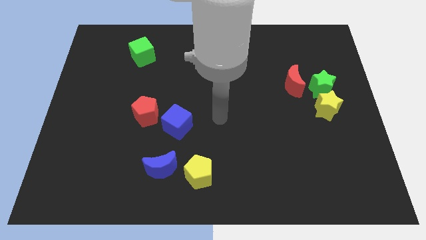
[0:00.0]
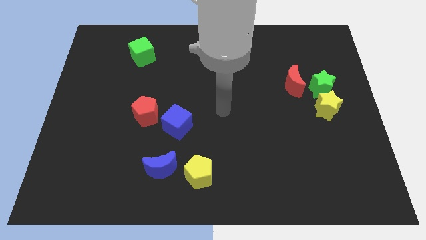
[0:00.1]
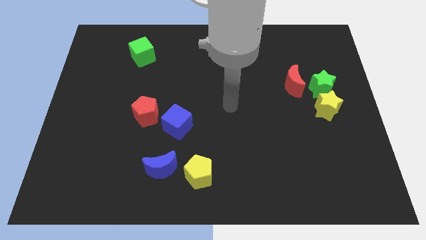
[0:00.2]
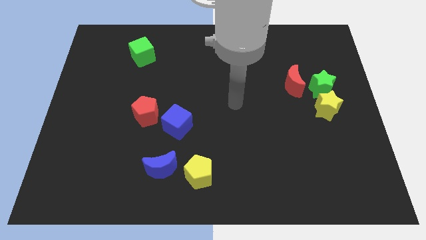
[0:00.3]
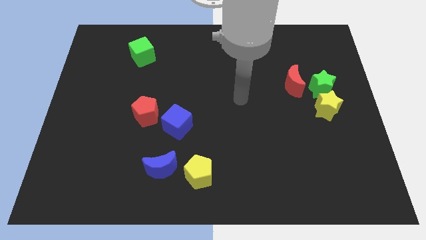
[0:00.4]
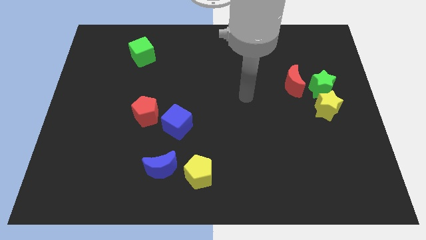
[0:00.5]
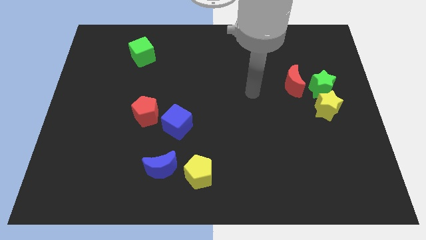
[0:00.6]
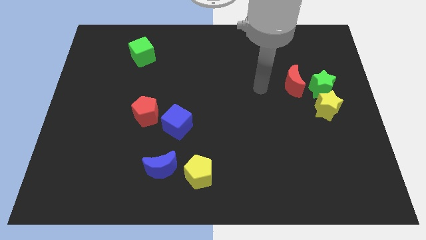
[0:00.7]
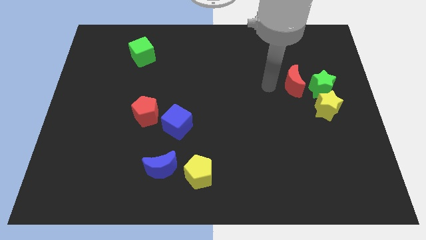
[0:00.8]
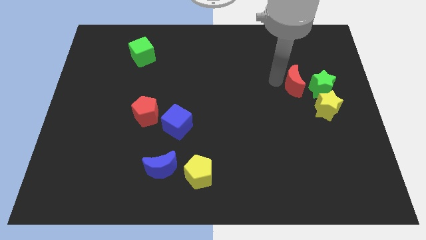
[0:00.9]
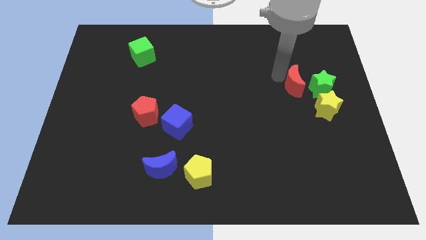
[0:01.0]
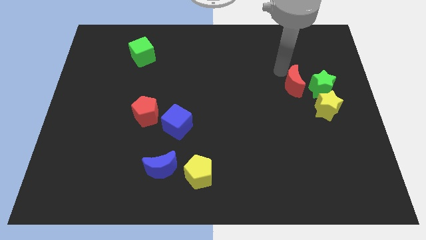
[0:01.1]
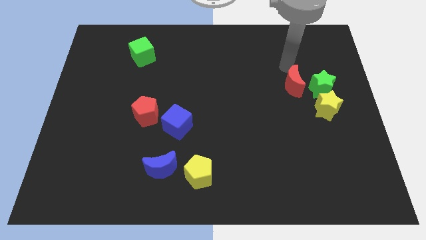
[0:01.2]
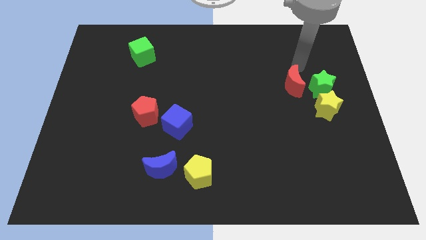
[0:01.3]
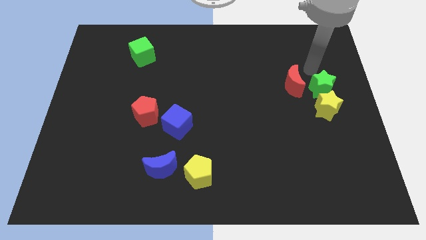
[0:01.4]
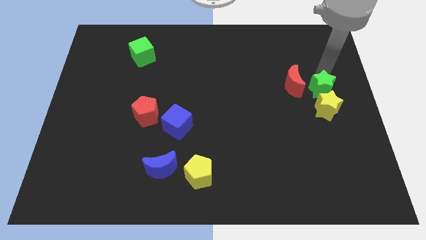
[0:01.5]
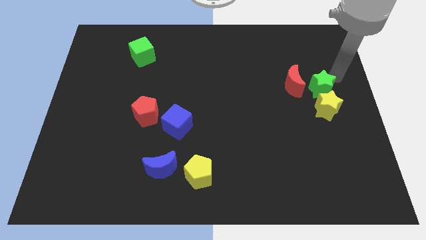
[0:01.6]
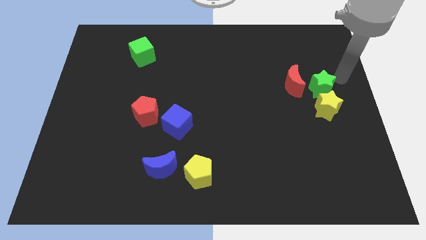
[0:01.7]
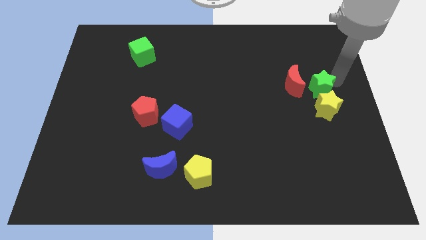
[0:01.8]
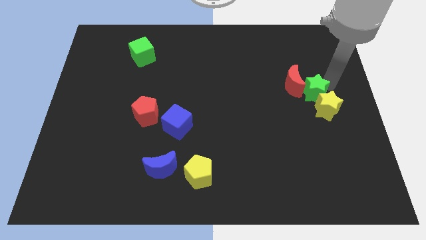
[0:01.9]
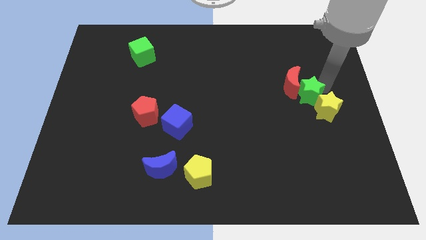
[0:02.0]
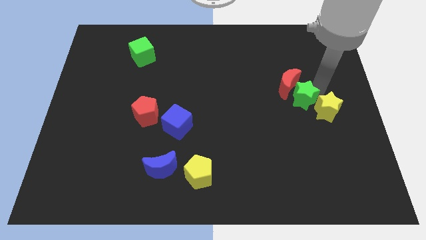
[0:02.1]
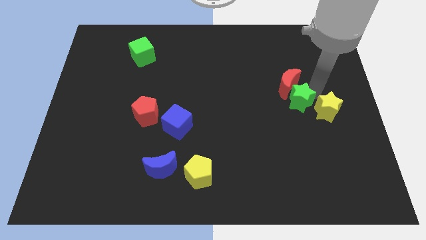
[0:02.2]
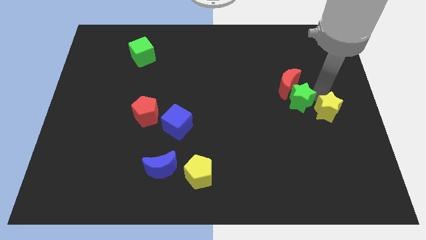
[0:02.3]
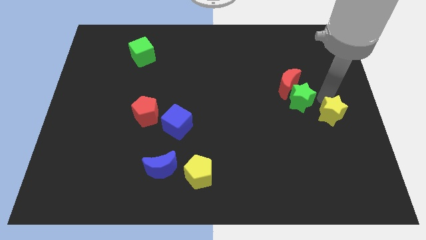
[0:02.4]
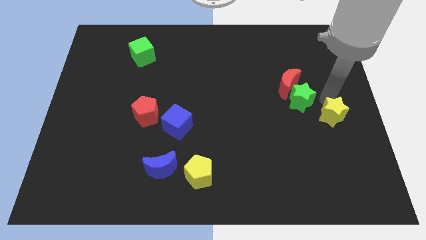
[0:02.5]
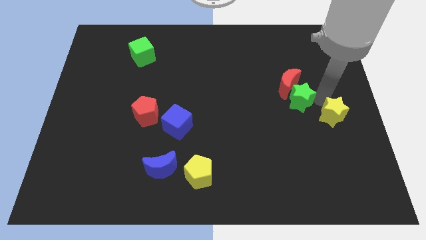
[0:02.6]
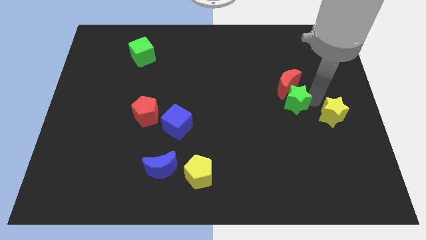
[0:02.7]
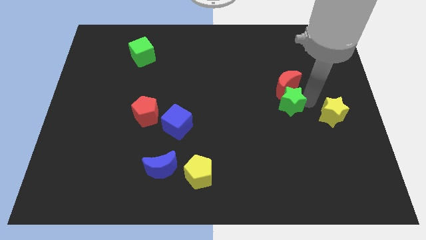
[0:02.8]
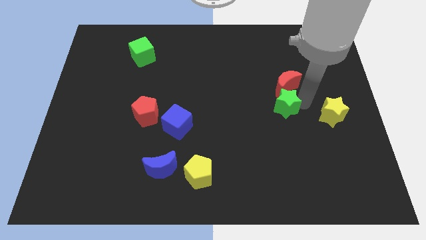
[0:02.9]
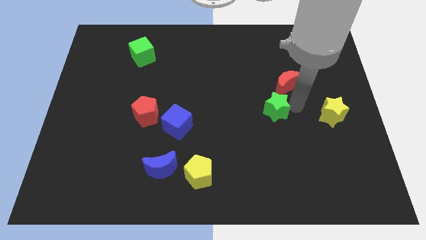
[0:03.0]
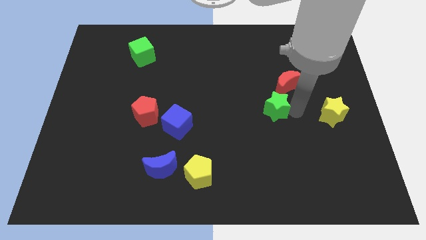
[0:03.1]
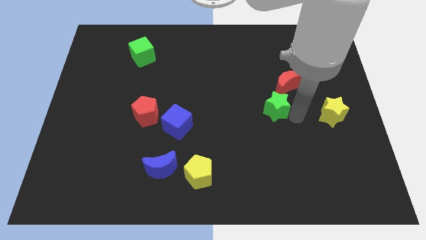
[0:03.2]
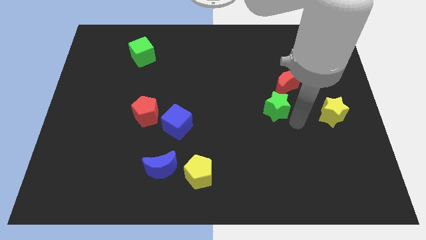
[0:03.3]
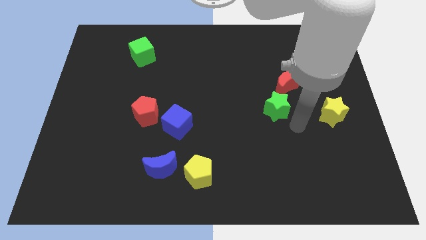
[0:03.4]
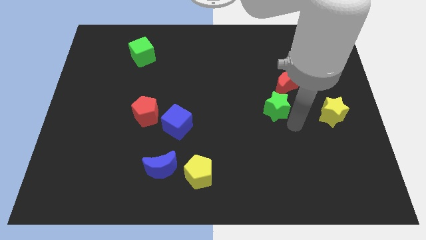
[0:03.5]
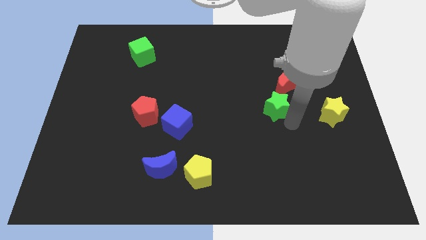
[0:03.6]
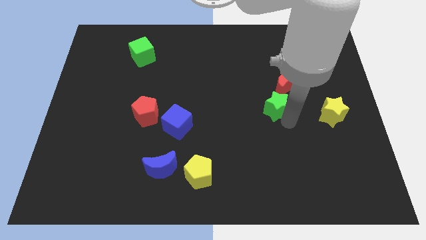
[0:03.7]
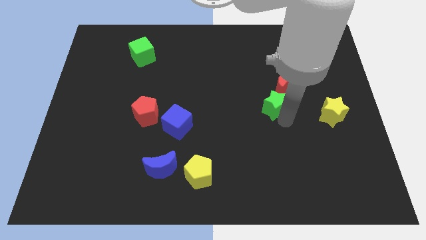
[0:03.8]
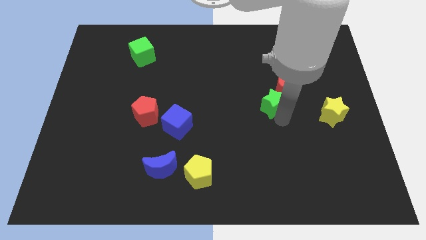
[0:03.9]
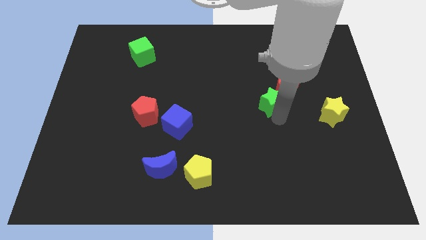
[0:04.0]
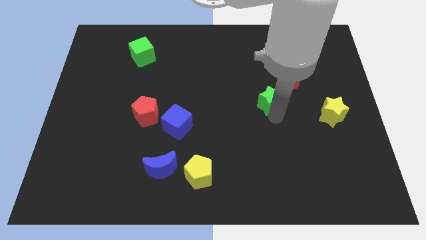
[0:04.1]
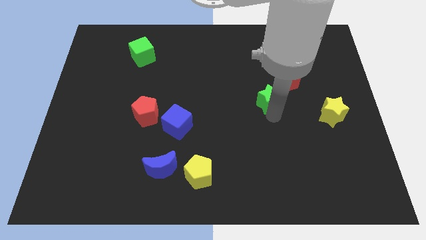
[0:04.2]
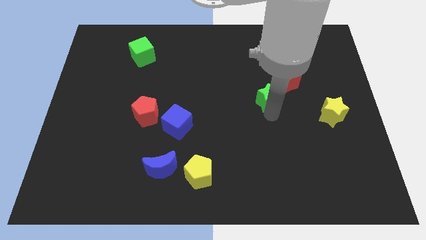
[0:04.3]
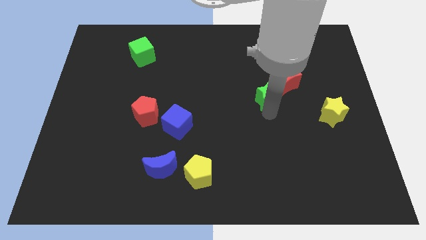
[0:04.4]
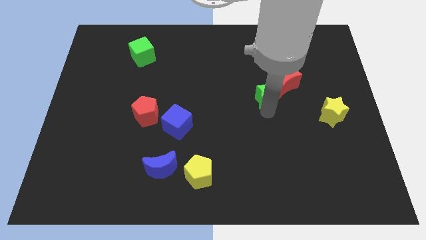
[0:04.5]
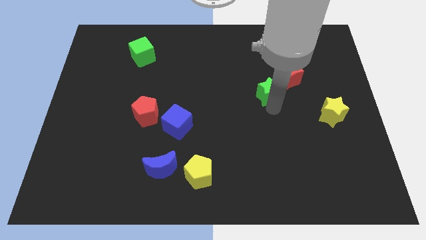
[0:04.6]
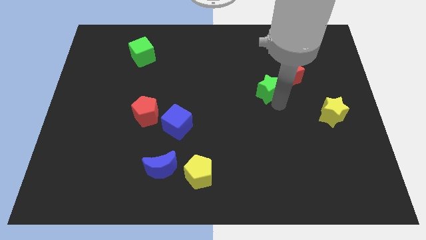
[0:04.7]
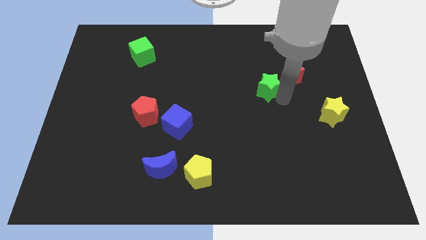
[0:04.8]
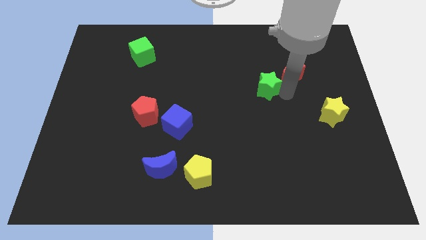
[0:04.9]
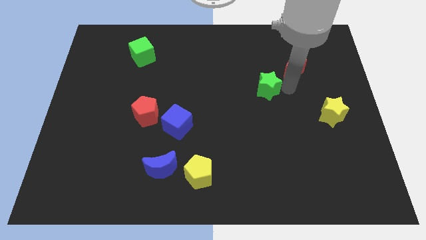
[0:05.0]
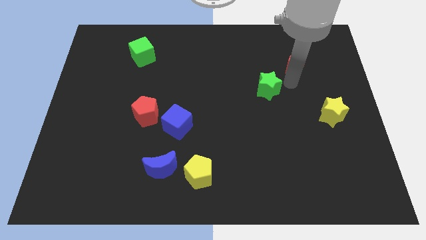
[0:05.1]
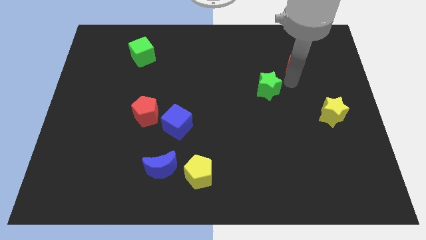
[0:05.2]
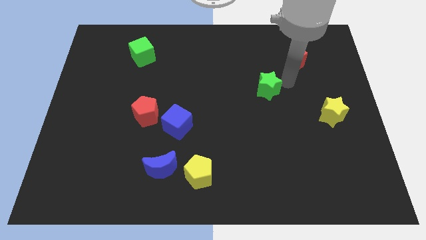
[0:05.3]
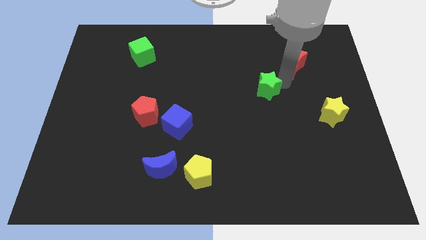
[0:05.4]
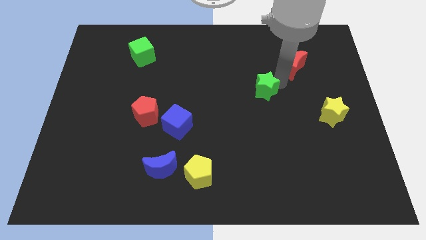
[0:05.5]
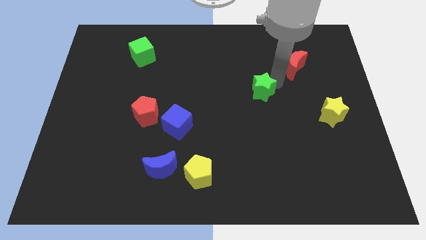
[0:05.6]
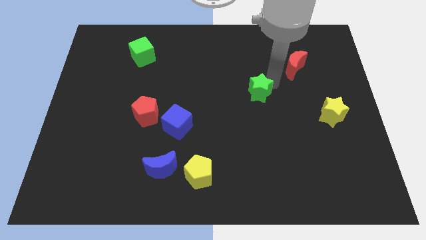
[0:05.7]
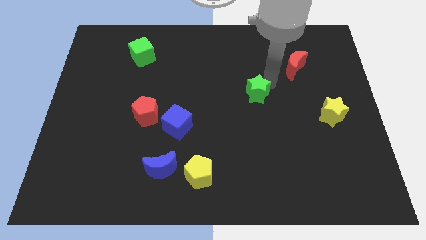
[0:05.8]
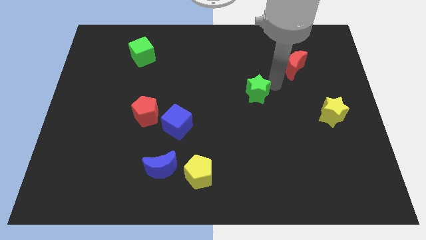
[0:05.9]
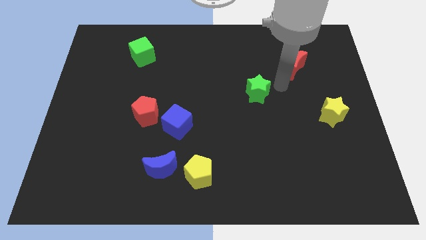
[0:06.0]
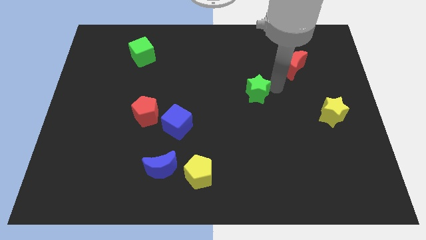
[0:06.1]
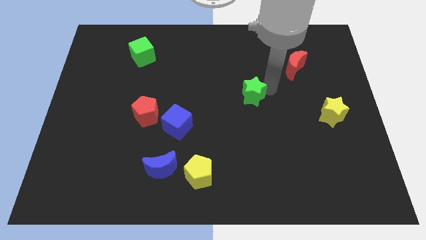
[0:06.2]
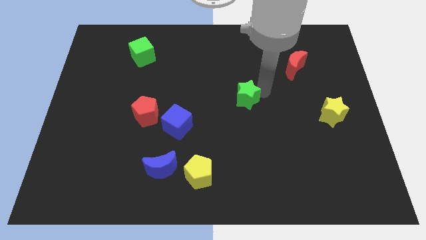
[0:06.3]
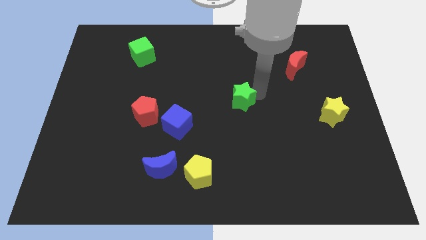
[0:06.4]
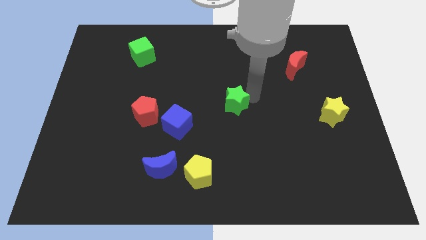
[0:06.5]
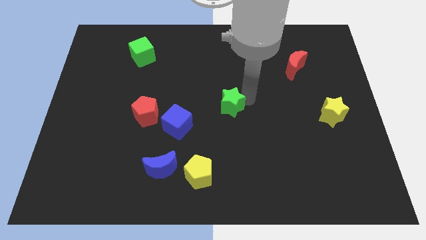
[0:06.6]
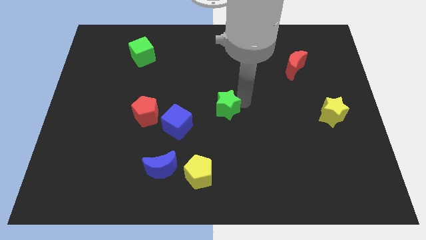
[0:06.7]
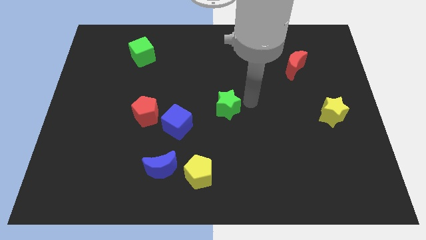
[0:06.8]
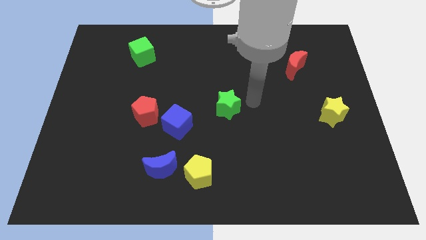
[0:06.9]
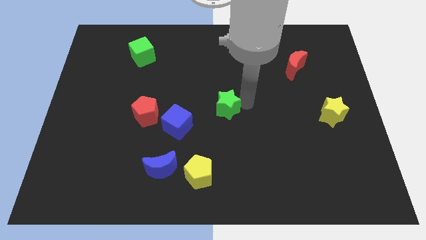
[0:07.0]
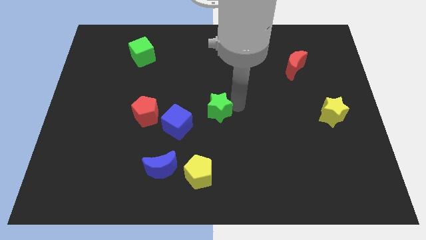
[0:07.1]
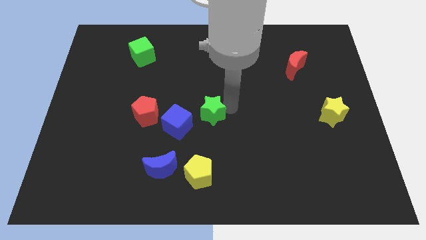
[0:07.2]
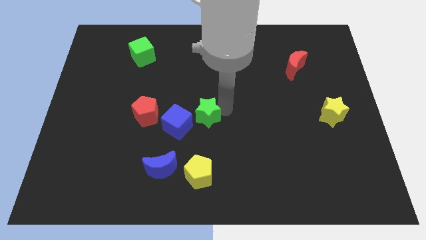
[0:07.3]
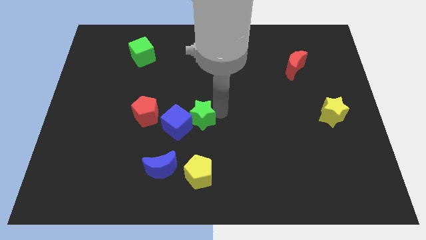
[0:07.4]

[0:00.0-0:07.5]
move the green star next to the blue cube

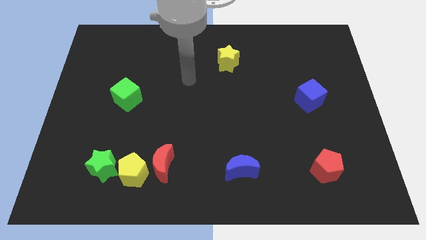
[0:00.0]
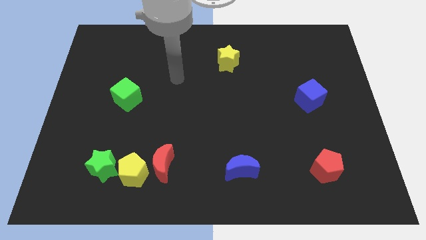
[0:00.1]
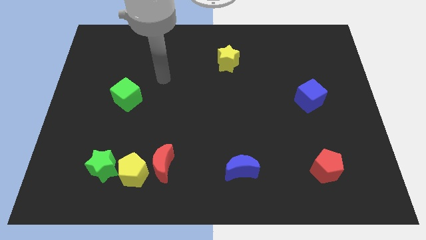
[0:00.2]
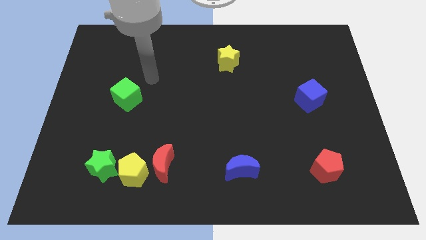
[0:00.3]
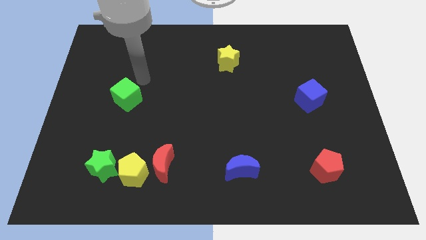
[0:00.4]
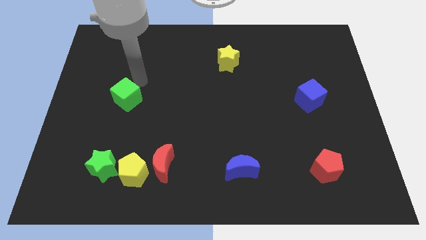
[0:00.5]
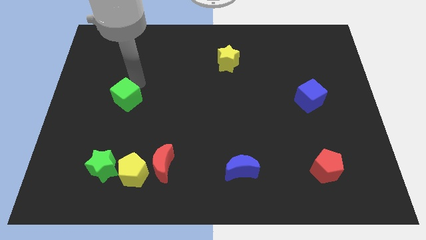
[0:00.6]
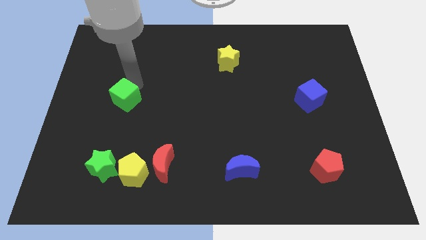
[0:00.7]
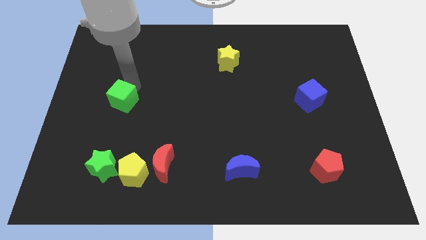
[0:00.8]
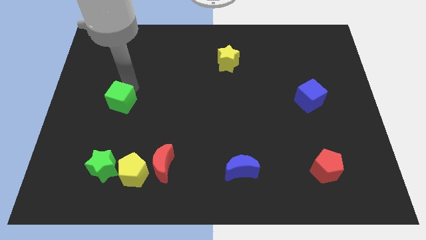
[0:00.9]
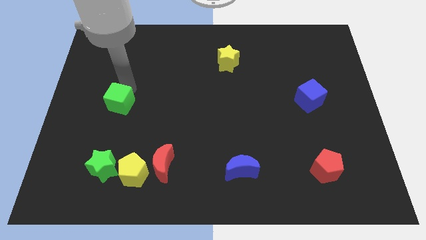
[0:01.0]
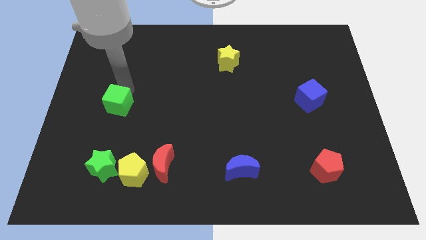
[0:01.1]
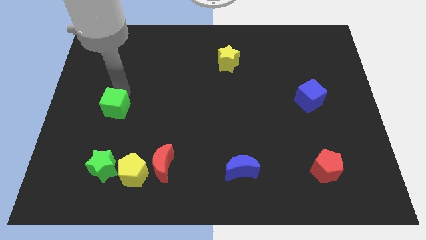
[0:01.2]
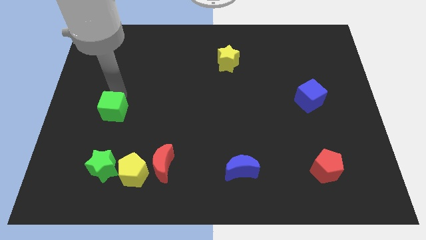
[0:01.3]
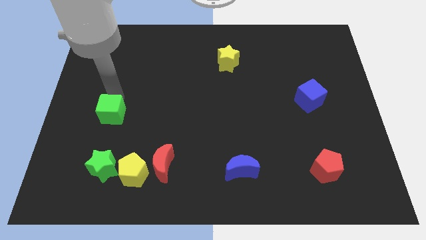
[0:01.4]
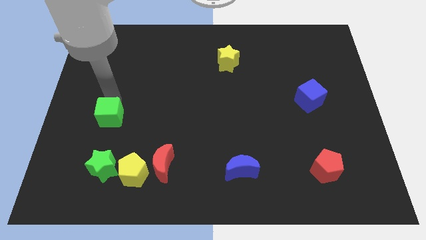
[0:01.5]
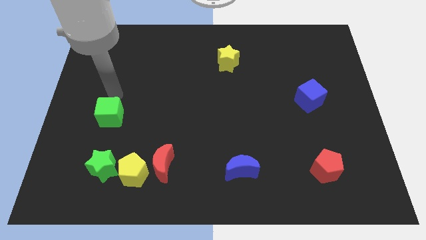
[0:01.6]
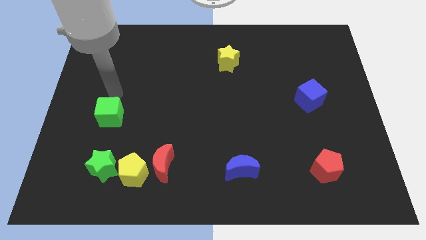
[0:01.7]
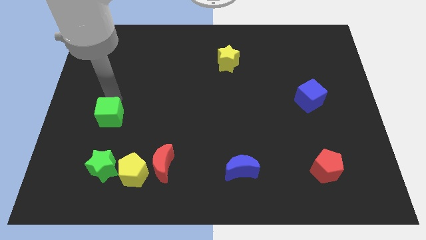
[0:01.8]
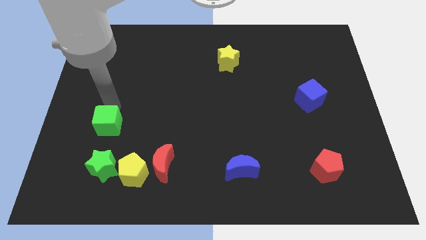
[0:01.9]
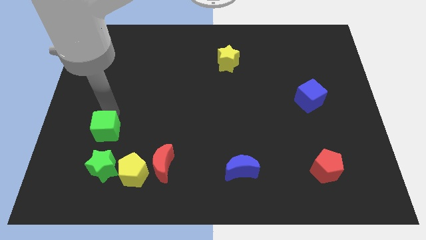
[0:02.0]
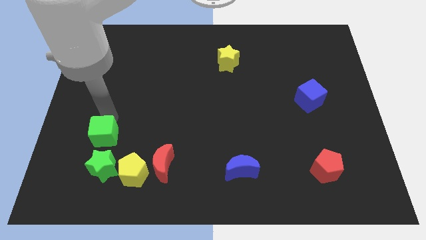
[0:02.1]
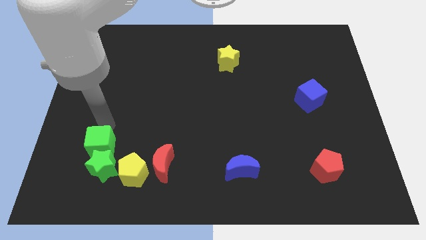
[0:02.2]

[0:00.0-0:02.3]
put the green cube towards the green star
